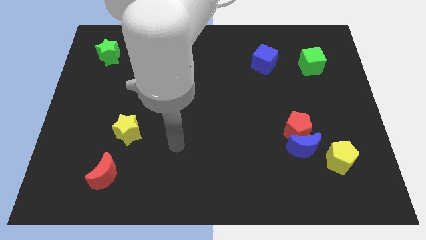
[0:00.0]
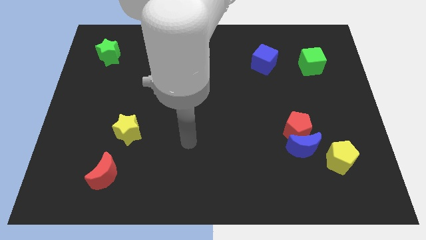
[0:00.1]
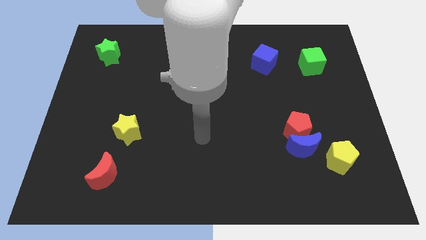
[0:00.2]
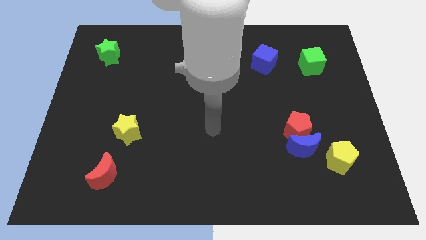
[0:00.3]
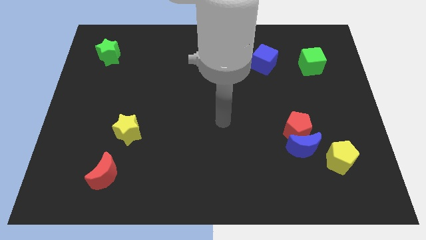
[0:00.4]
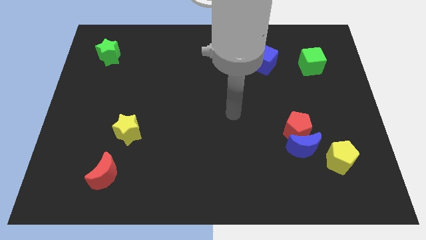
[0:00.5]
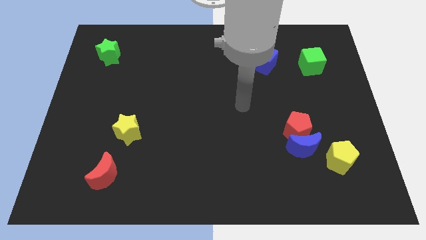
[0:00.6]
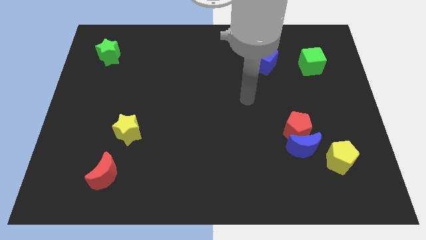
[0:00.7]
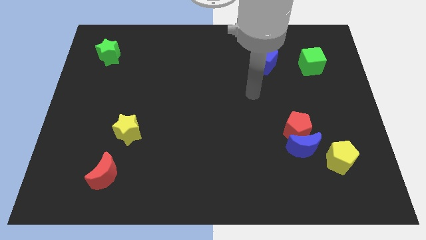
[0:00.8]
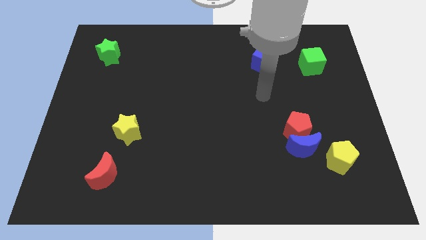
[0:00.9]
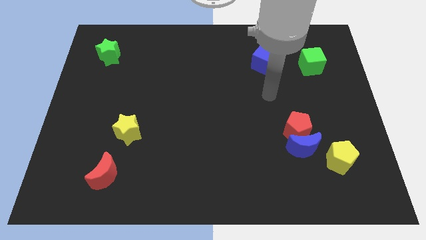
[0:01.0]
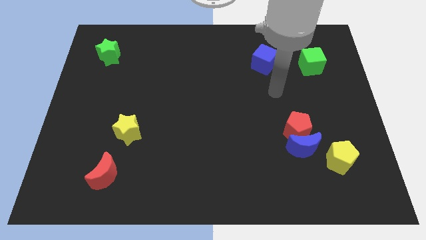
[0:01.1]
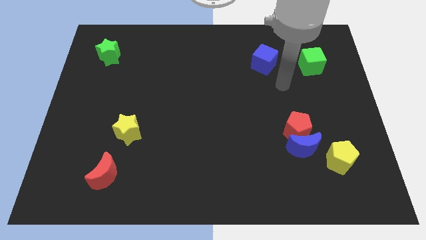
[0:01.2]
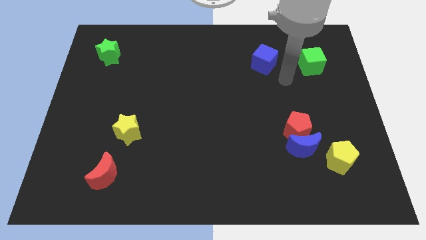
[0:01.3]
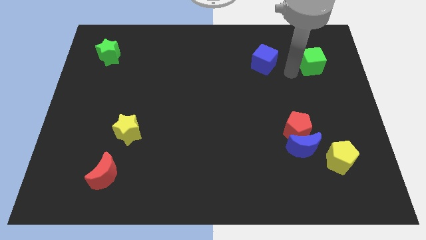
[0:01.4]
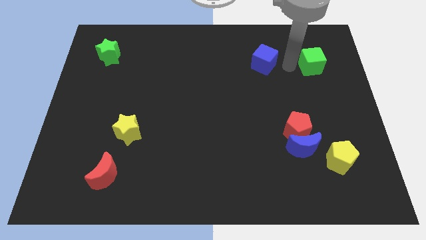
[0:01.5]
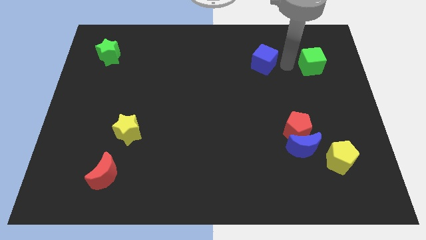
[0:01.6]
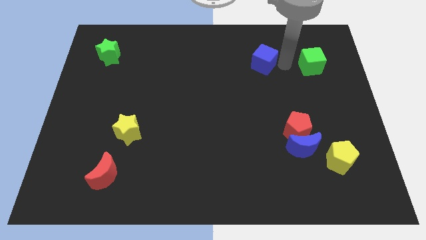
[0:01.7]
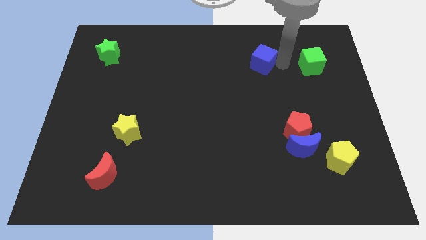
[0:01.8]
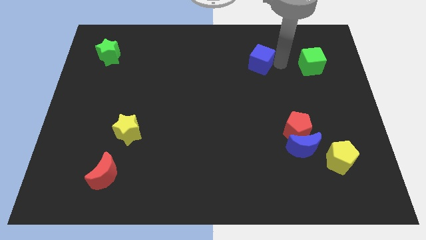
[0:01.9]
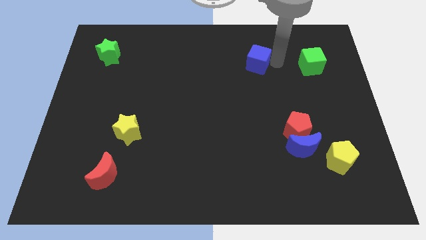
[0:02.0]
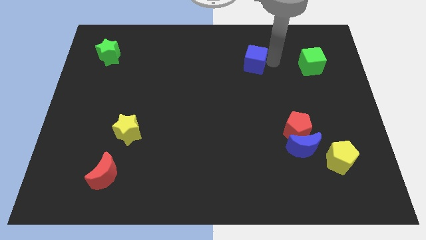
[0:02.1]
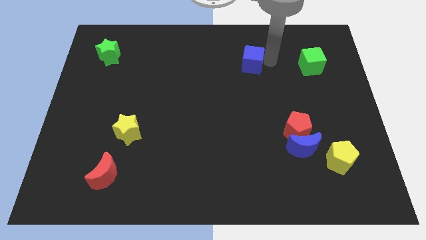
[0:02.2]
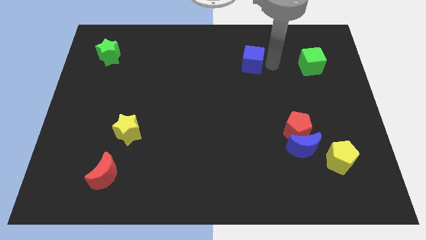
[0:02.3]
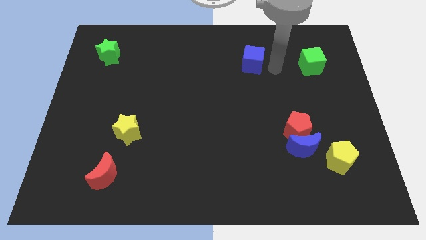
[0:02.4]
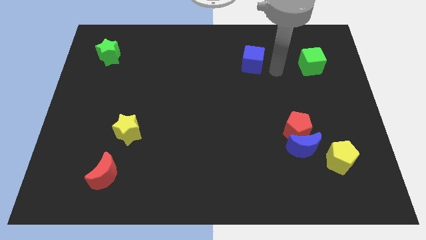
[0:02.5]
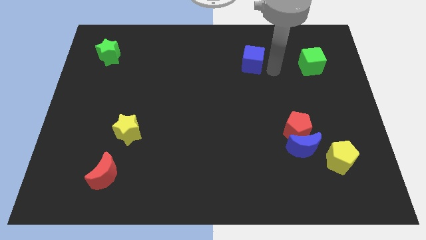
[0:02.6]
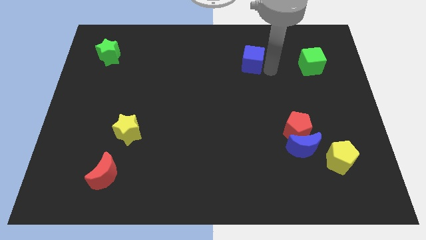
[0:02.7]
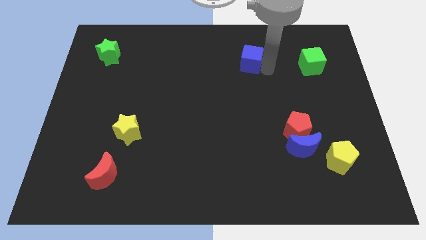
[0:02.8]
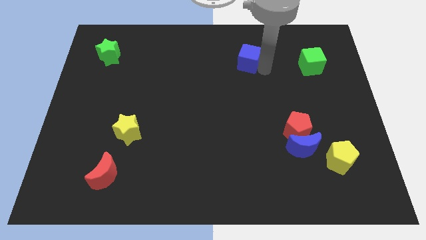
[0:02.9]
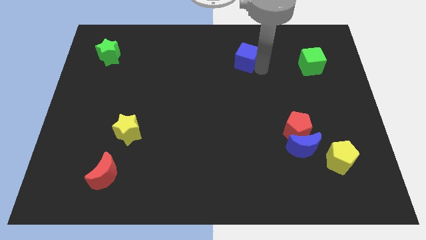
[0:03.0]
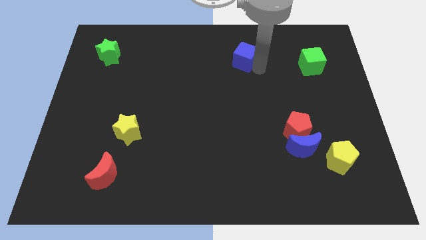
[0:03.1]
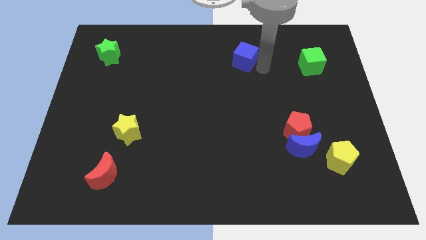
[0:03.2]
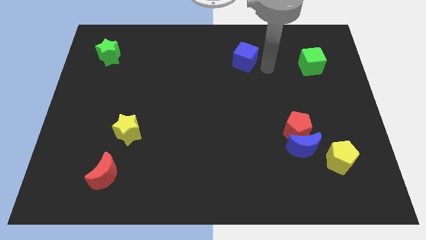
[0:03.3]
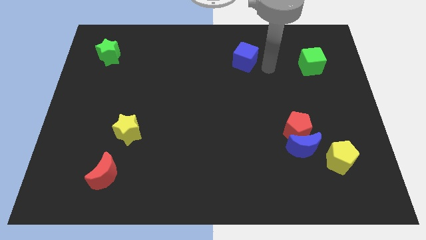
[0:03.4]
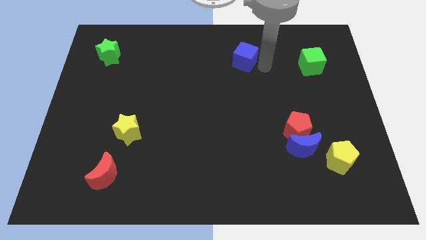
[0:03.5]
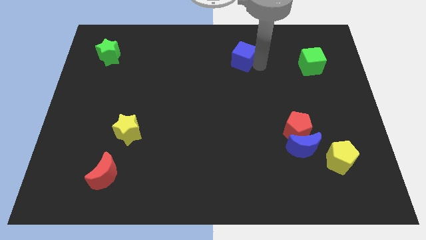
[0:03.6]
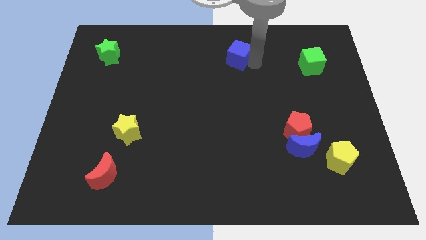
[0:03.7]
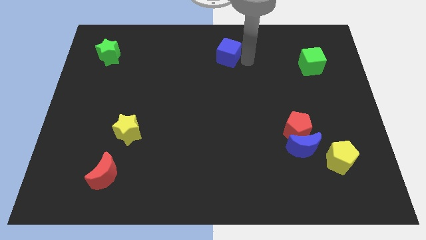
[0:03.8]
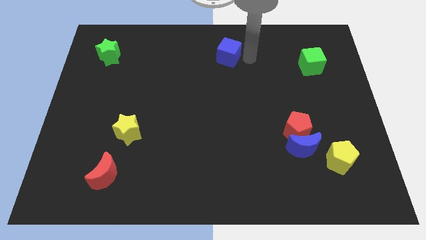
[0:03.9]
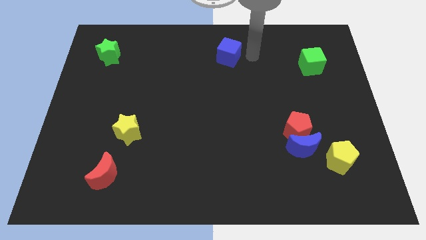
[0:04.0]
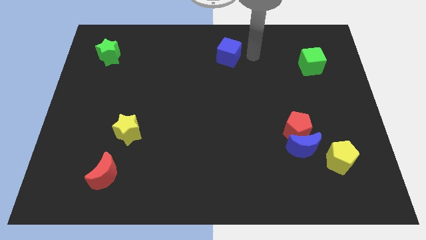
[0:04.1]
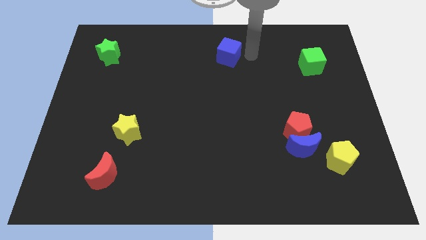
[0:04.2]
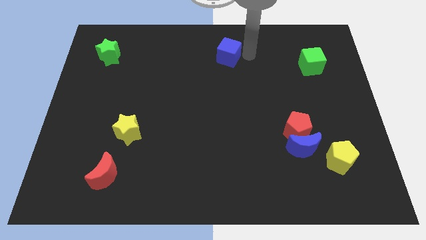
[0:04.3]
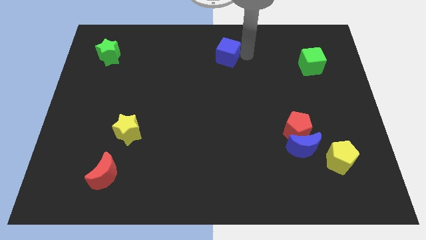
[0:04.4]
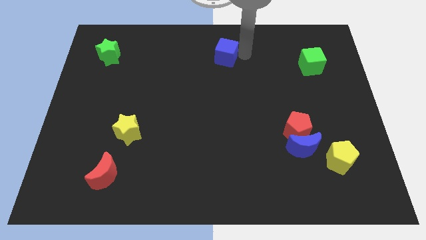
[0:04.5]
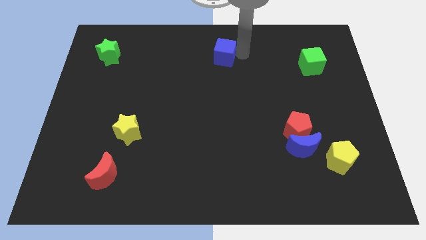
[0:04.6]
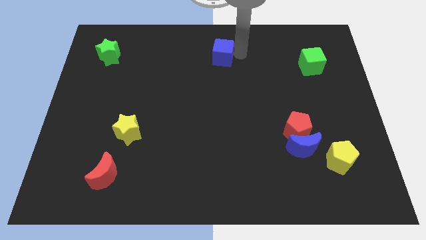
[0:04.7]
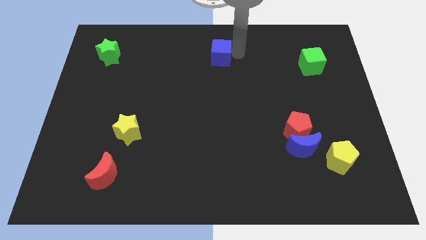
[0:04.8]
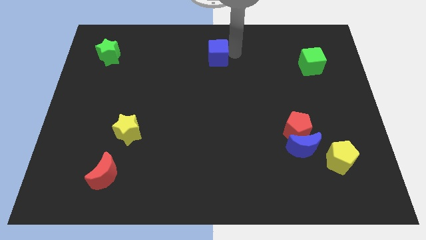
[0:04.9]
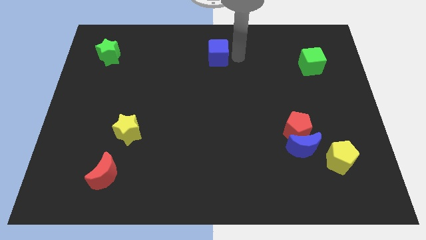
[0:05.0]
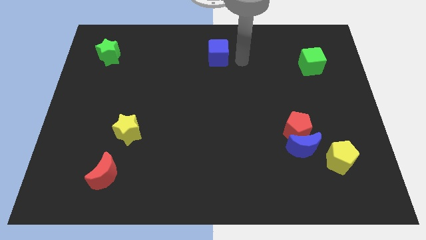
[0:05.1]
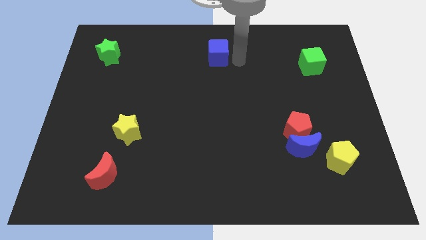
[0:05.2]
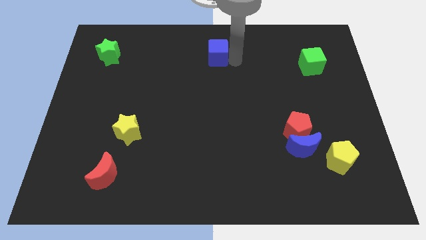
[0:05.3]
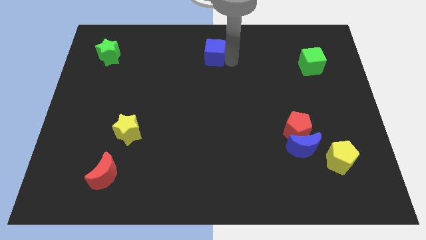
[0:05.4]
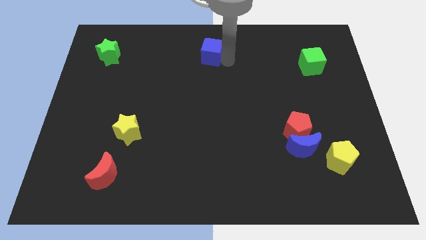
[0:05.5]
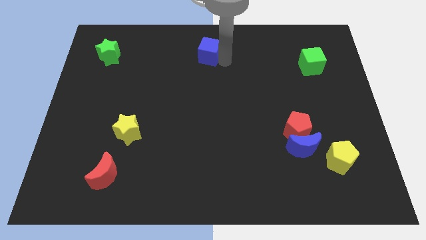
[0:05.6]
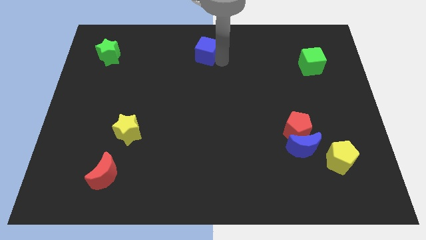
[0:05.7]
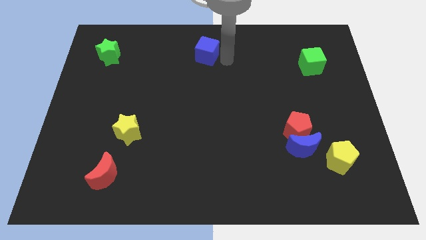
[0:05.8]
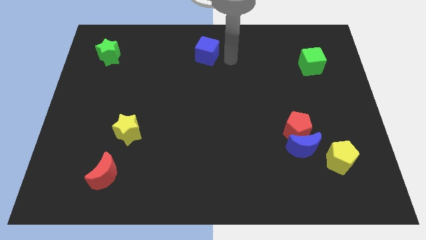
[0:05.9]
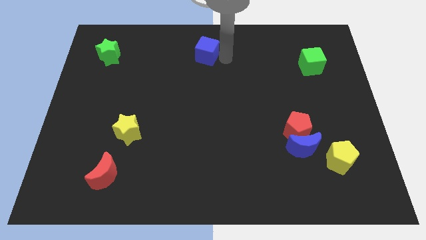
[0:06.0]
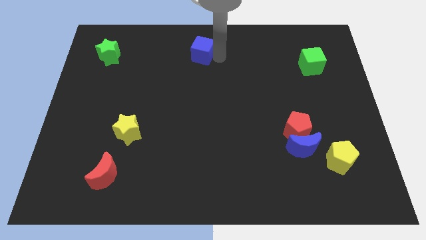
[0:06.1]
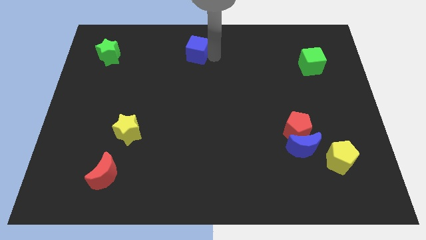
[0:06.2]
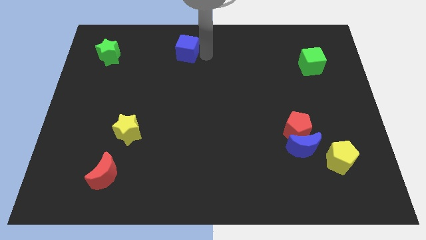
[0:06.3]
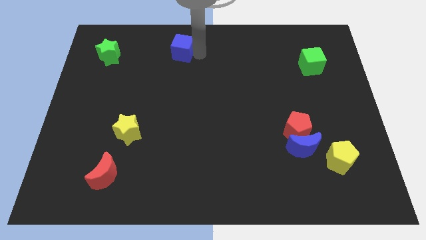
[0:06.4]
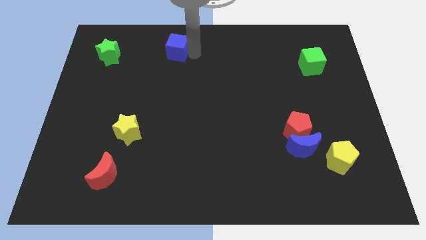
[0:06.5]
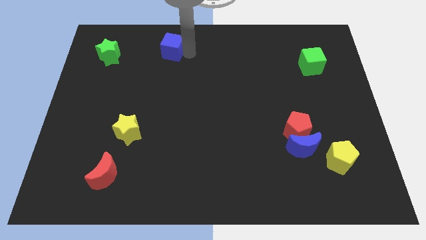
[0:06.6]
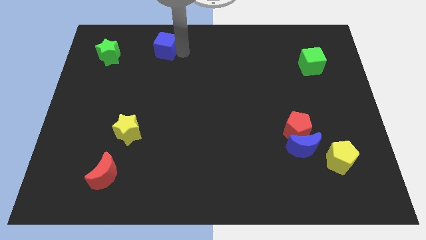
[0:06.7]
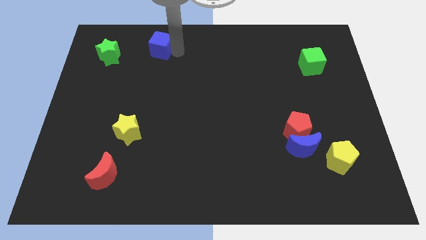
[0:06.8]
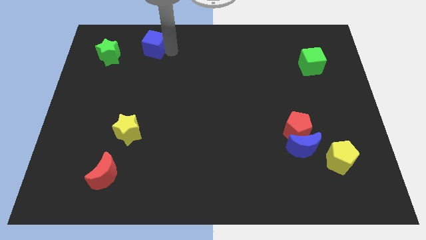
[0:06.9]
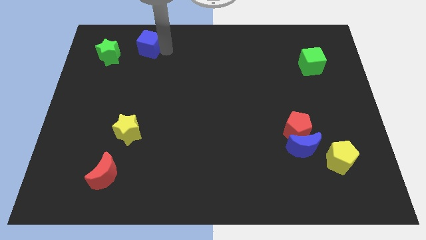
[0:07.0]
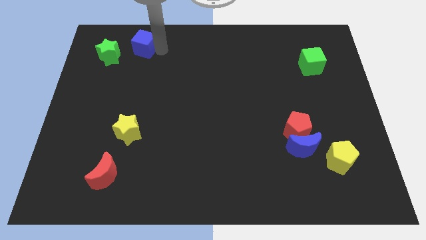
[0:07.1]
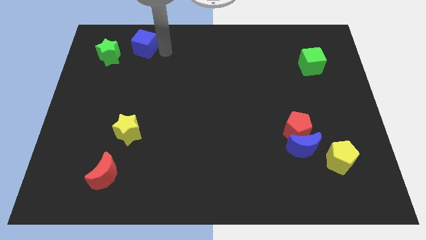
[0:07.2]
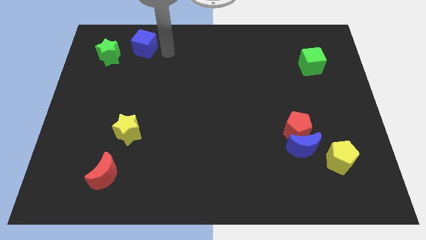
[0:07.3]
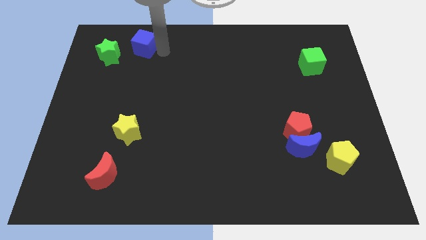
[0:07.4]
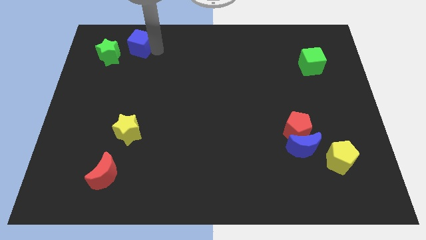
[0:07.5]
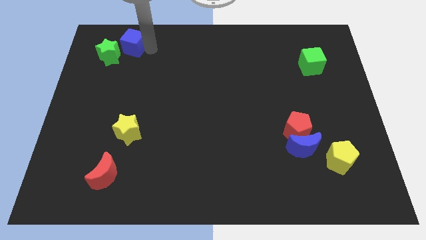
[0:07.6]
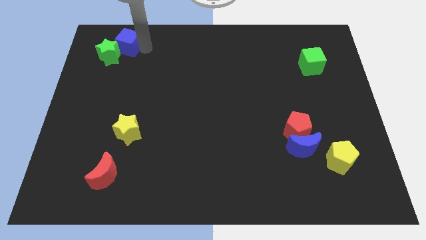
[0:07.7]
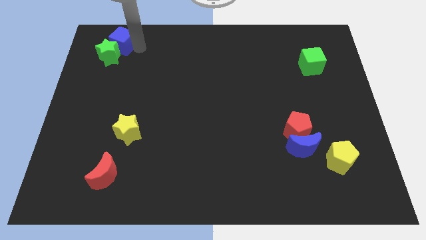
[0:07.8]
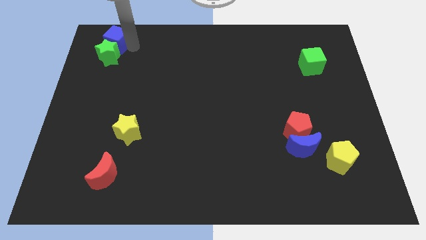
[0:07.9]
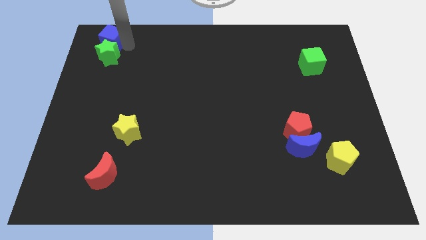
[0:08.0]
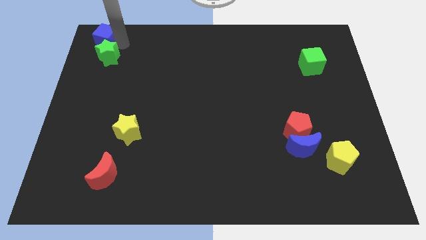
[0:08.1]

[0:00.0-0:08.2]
slide the blue cube to the top left
